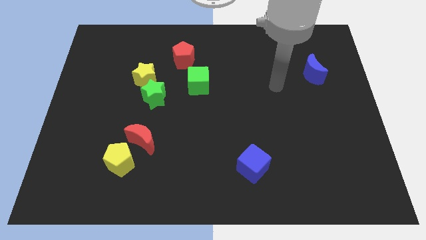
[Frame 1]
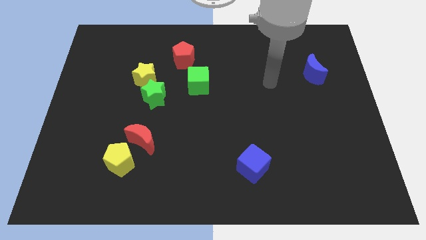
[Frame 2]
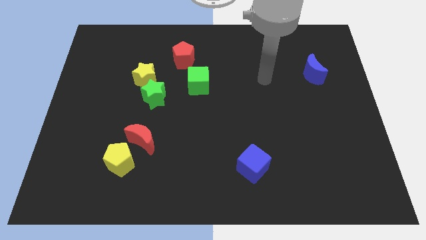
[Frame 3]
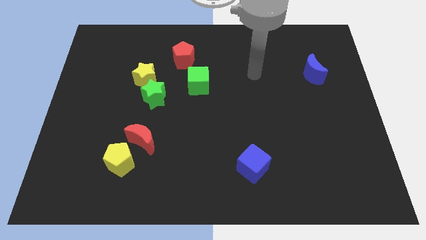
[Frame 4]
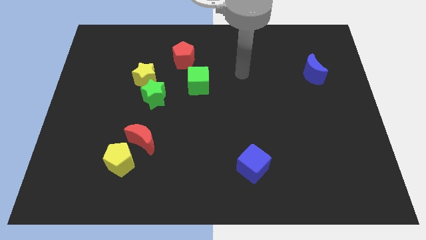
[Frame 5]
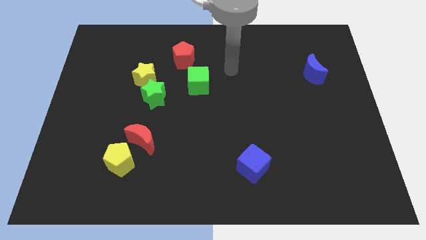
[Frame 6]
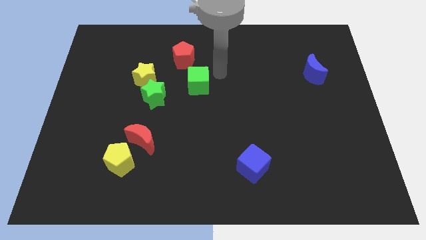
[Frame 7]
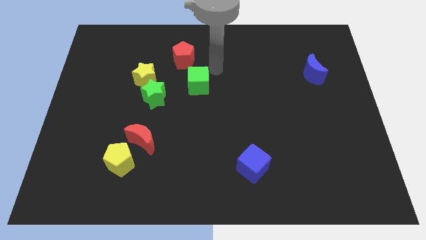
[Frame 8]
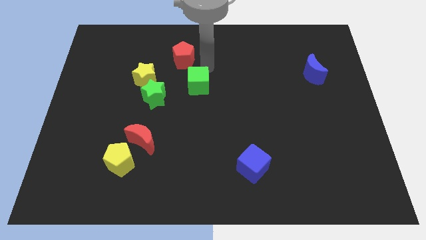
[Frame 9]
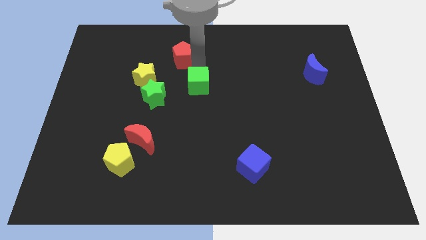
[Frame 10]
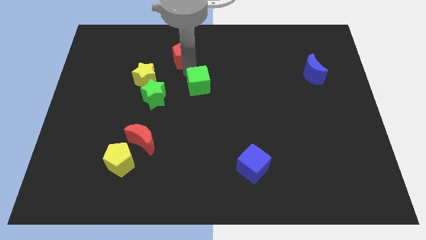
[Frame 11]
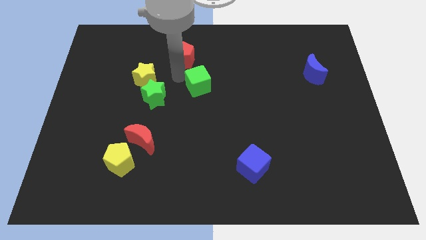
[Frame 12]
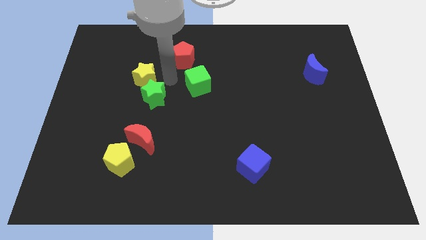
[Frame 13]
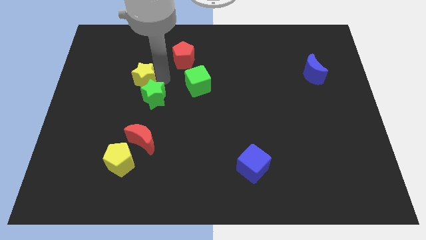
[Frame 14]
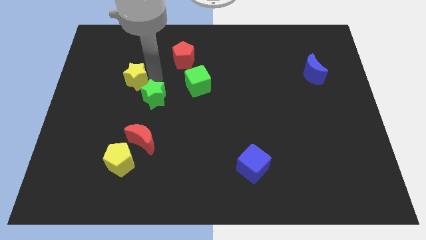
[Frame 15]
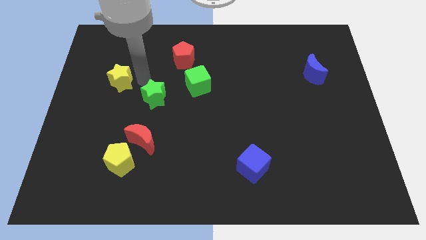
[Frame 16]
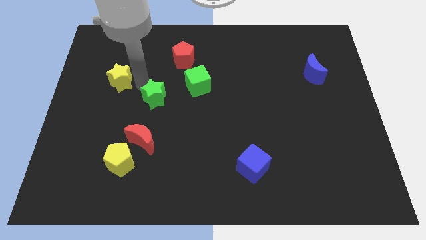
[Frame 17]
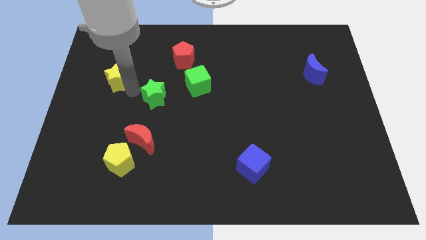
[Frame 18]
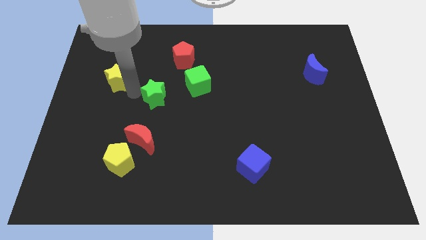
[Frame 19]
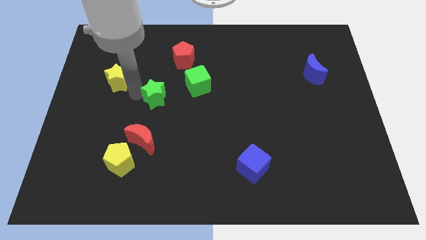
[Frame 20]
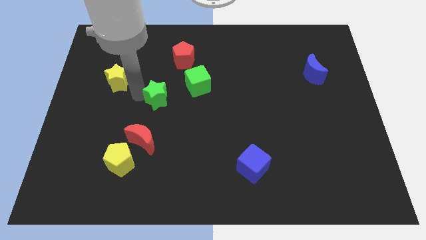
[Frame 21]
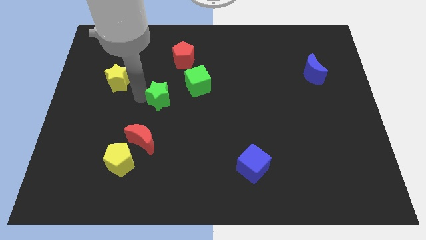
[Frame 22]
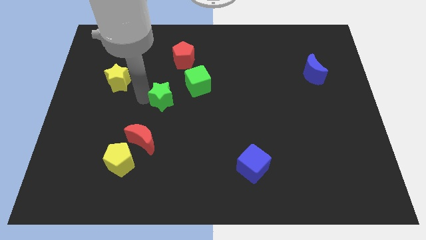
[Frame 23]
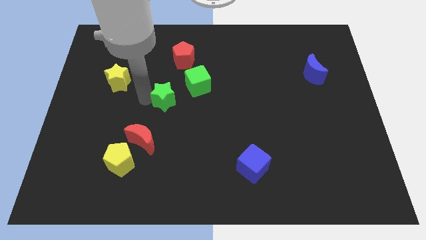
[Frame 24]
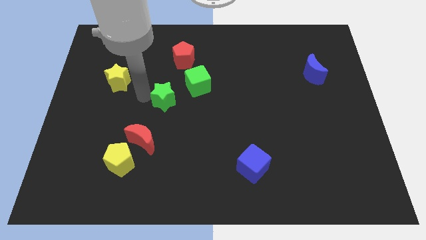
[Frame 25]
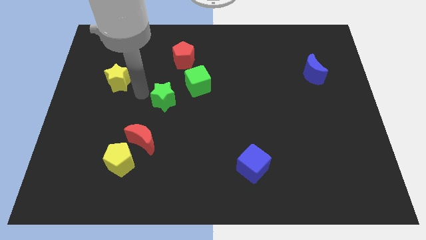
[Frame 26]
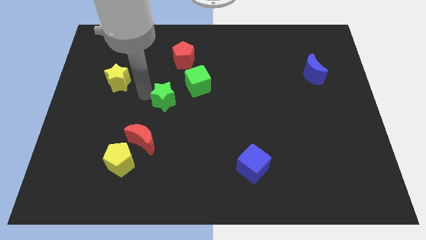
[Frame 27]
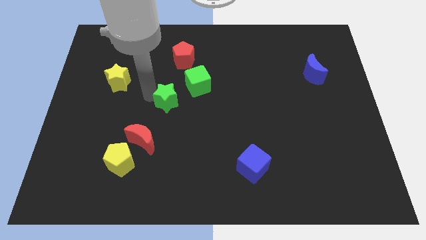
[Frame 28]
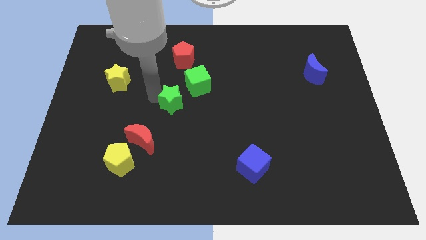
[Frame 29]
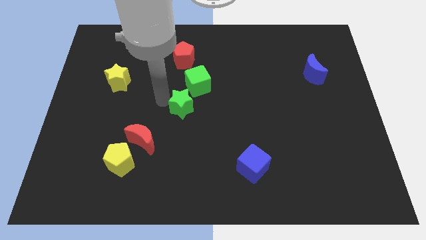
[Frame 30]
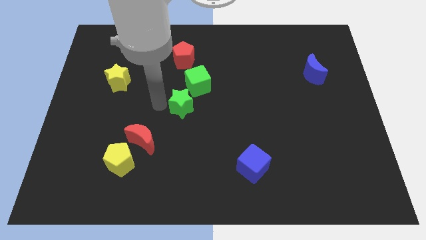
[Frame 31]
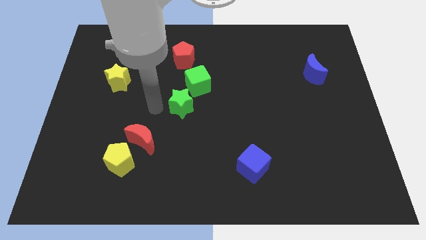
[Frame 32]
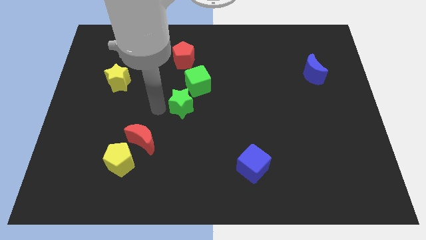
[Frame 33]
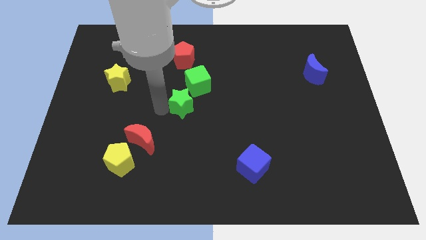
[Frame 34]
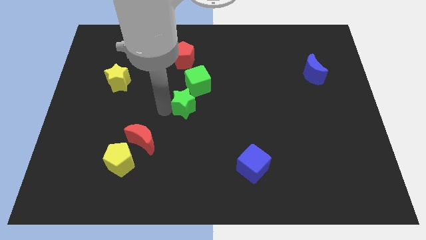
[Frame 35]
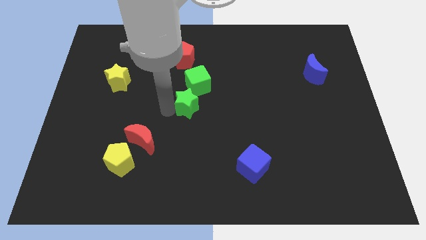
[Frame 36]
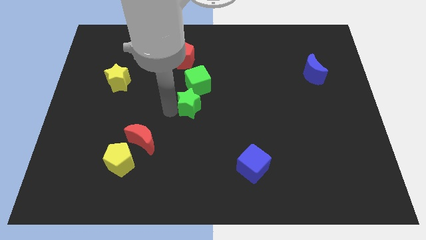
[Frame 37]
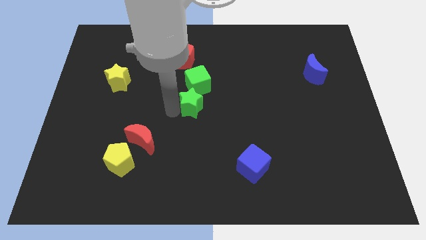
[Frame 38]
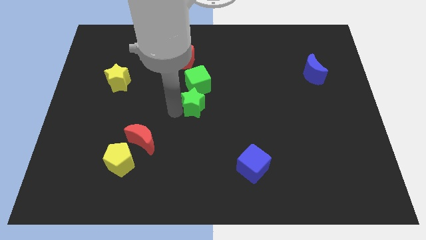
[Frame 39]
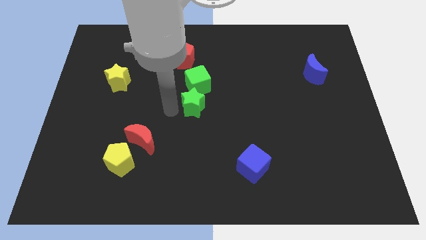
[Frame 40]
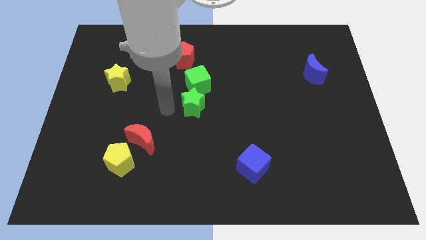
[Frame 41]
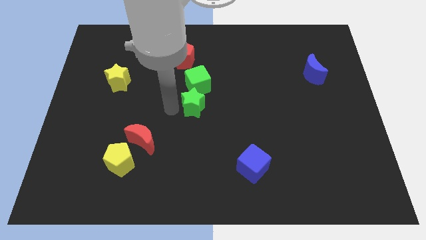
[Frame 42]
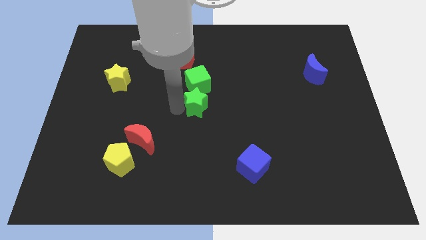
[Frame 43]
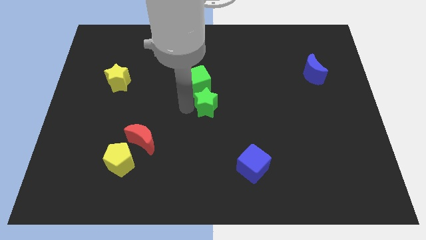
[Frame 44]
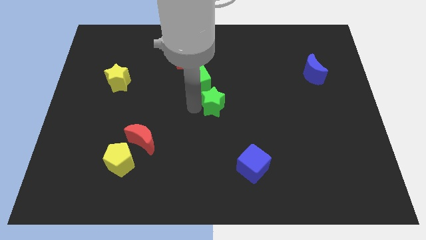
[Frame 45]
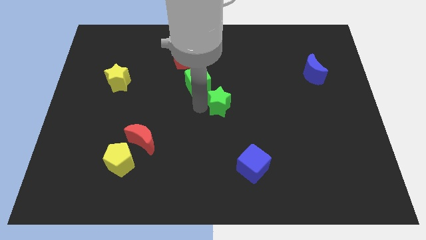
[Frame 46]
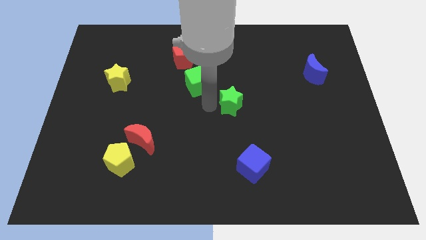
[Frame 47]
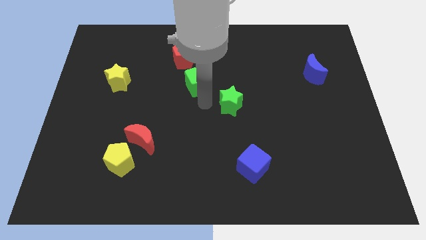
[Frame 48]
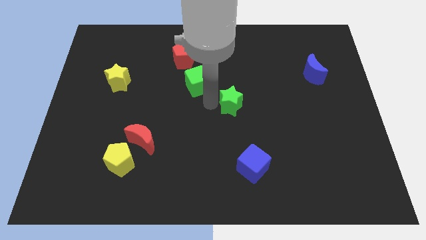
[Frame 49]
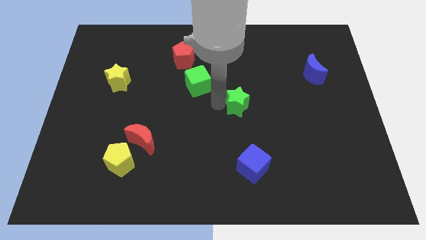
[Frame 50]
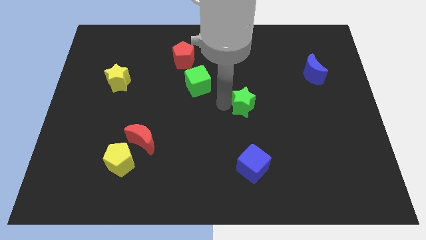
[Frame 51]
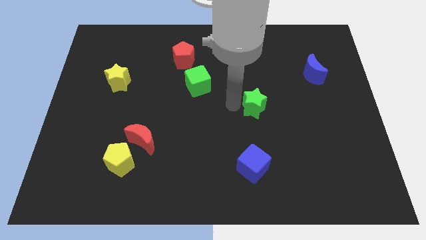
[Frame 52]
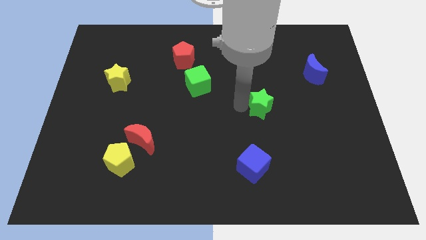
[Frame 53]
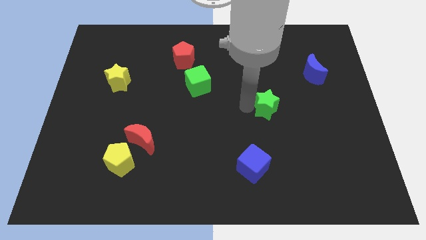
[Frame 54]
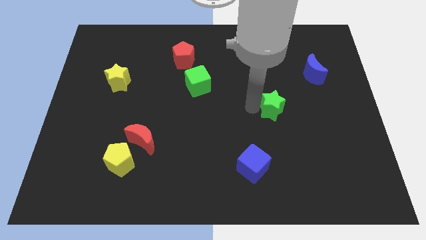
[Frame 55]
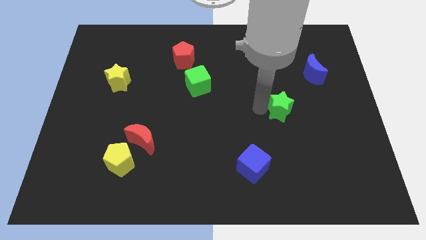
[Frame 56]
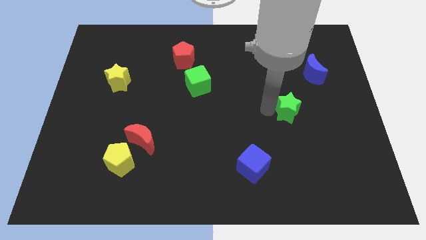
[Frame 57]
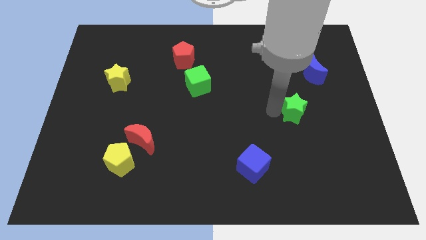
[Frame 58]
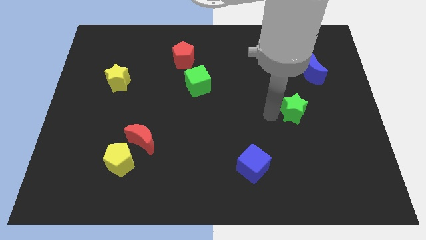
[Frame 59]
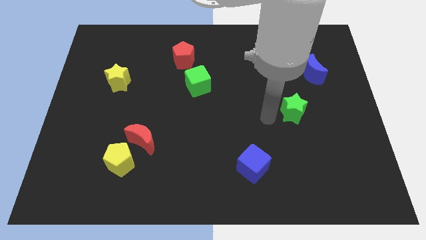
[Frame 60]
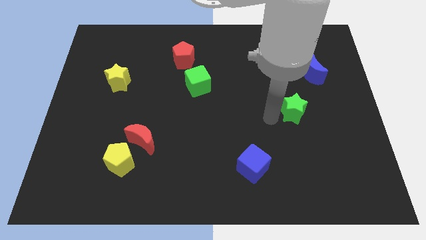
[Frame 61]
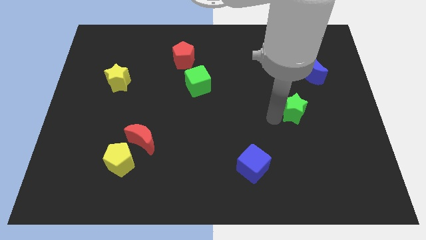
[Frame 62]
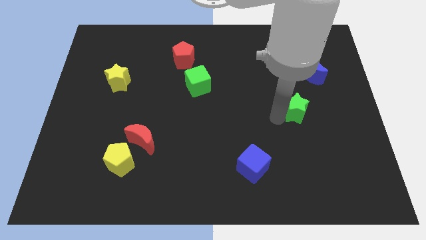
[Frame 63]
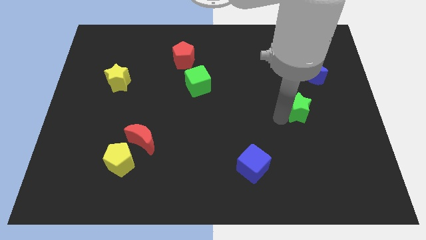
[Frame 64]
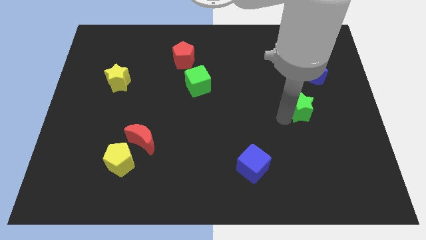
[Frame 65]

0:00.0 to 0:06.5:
push the green star to the bottom side of the blue moon

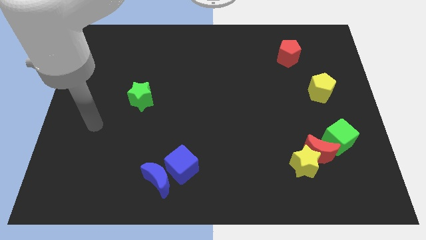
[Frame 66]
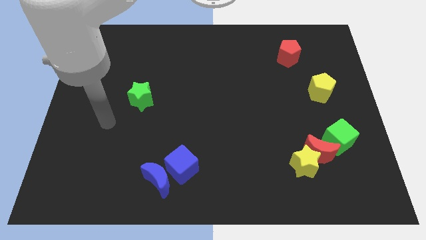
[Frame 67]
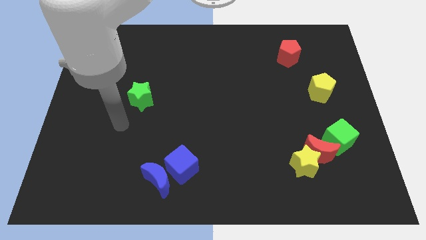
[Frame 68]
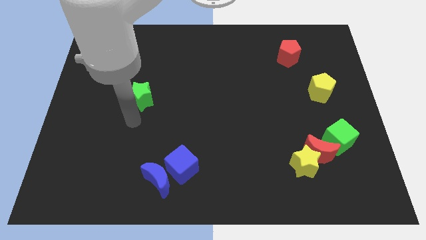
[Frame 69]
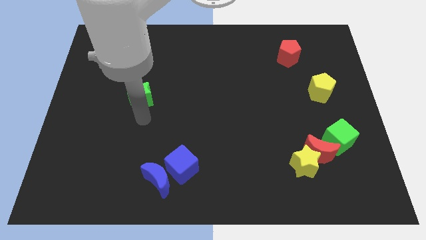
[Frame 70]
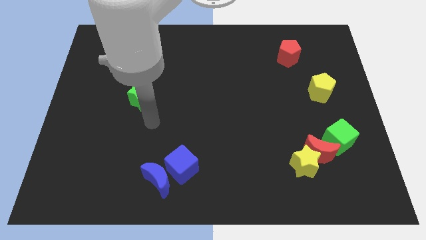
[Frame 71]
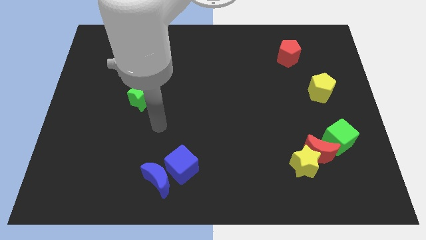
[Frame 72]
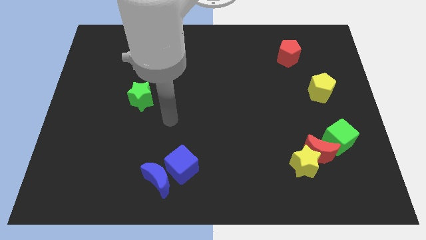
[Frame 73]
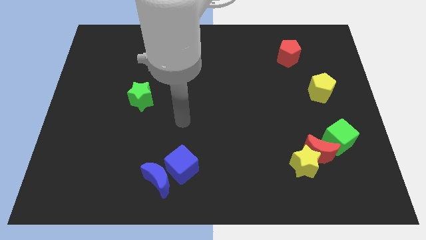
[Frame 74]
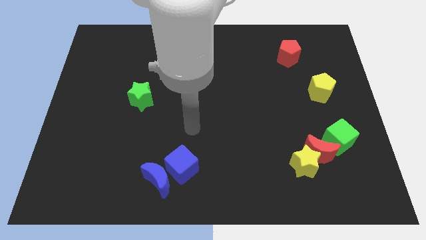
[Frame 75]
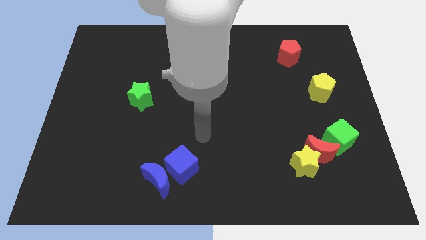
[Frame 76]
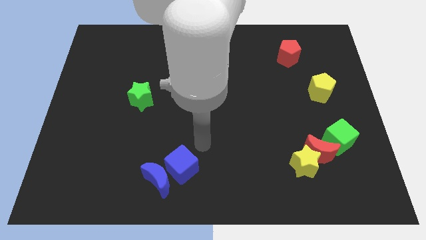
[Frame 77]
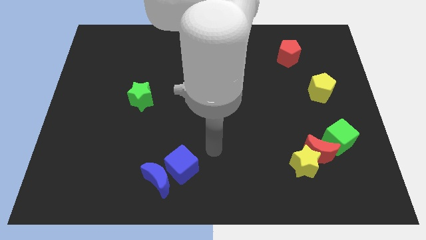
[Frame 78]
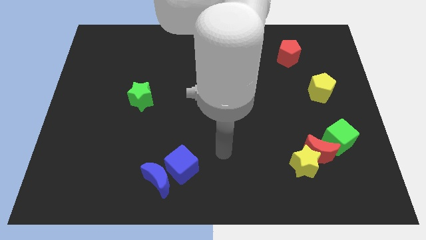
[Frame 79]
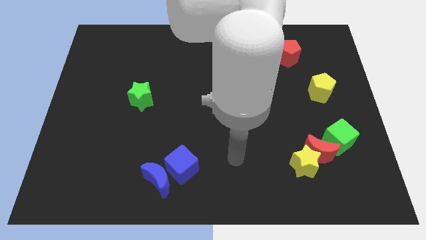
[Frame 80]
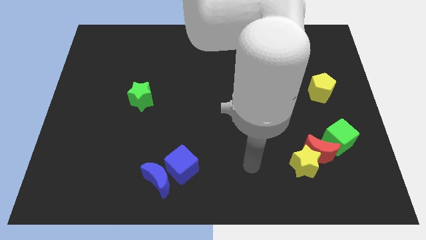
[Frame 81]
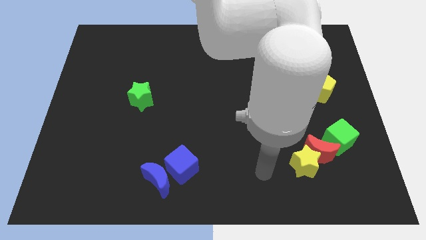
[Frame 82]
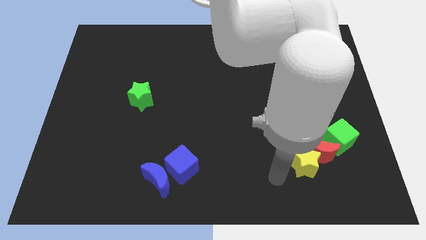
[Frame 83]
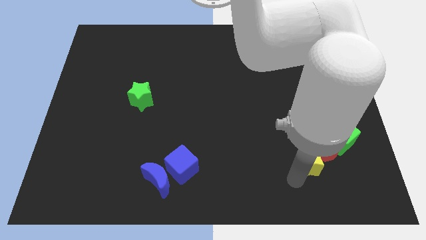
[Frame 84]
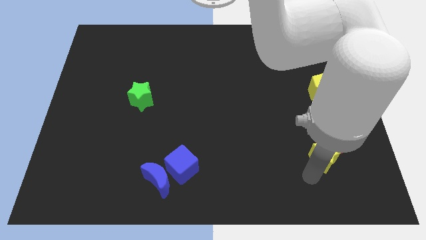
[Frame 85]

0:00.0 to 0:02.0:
slide the red moon to the bottom side of the yellow pentagon
